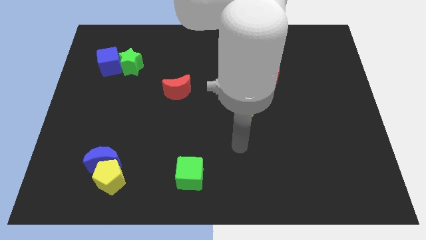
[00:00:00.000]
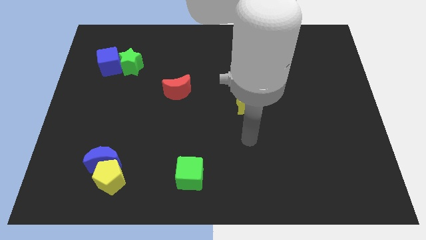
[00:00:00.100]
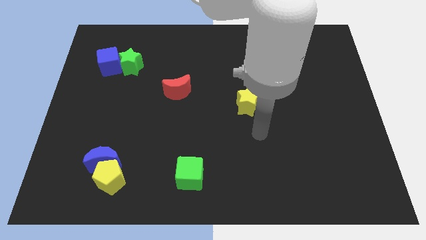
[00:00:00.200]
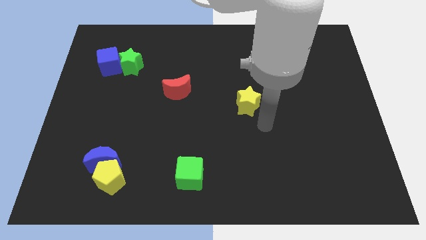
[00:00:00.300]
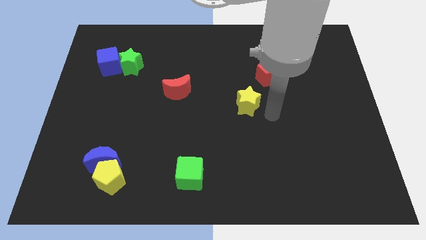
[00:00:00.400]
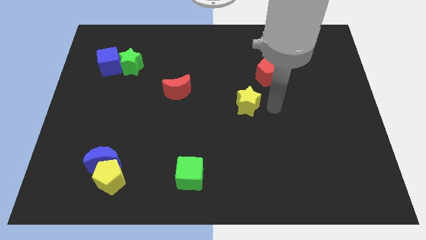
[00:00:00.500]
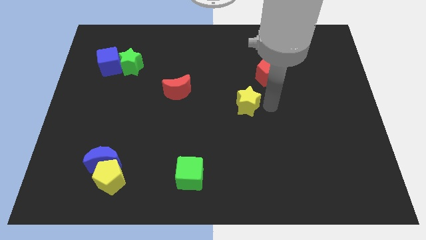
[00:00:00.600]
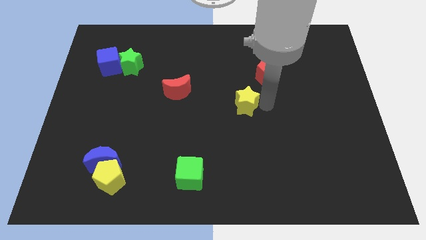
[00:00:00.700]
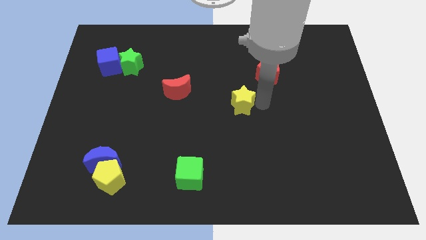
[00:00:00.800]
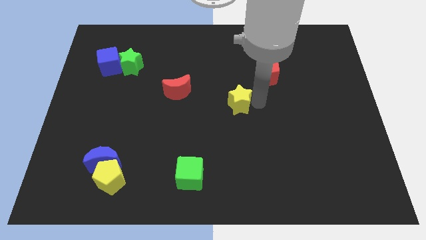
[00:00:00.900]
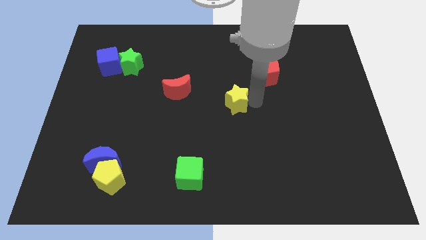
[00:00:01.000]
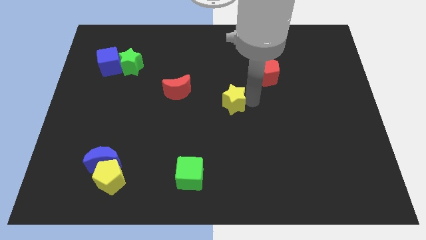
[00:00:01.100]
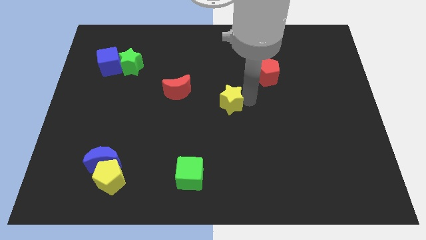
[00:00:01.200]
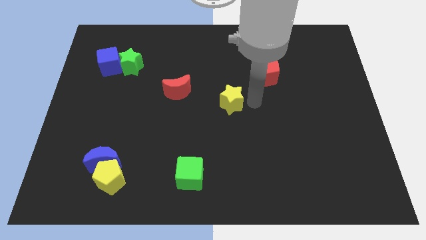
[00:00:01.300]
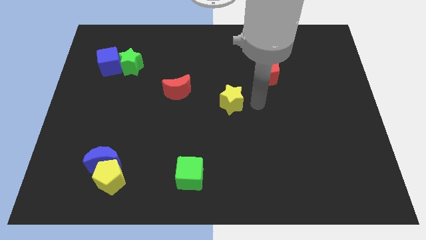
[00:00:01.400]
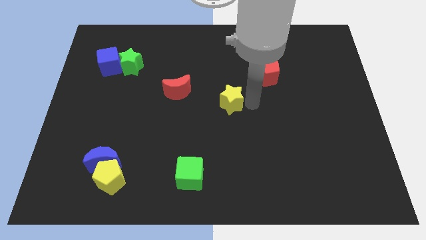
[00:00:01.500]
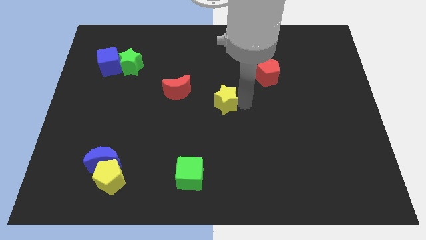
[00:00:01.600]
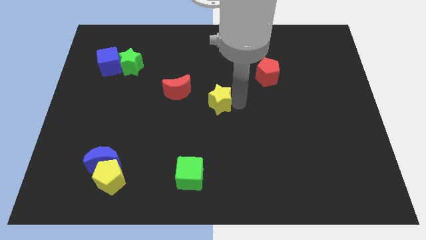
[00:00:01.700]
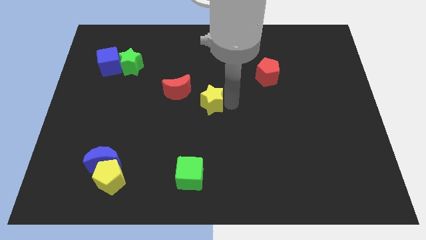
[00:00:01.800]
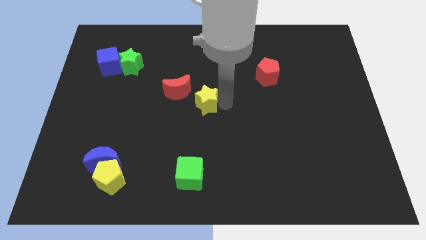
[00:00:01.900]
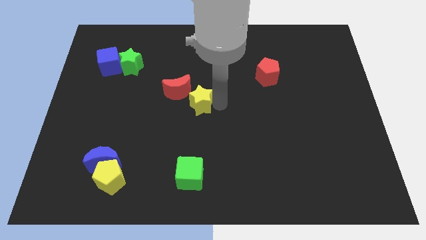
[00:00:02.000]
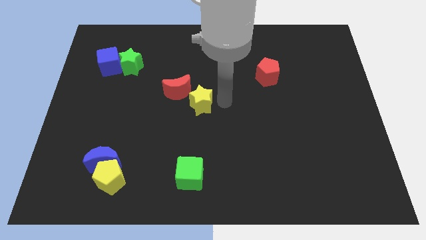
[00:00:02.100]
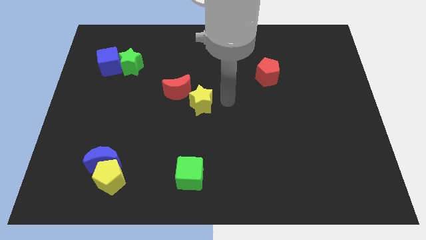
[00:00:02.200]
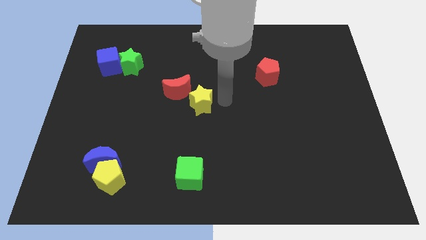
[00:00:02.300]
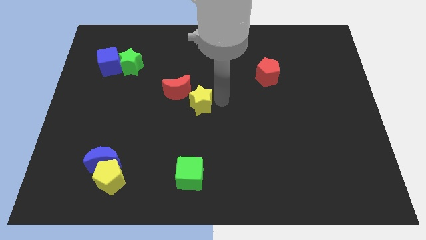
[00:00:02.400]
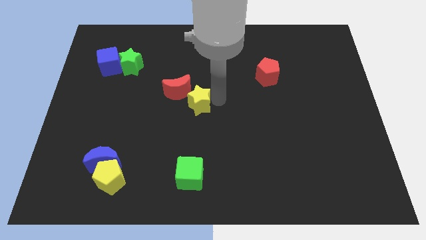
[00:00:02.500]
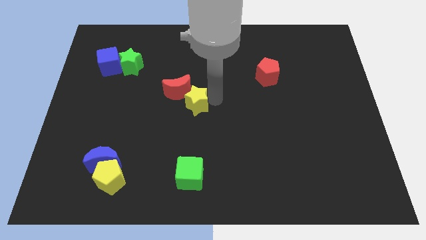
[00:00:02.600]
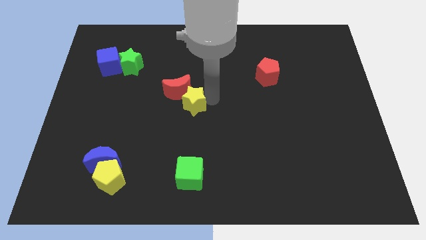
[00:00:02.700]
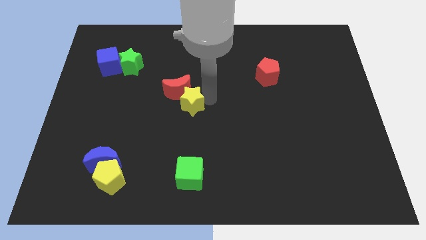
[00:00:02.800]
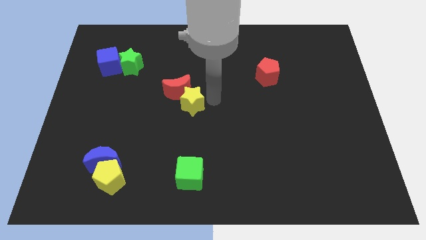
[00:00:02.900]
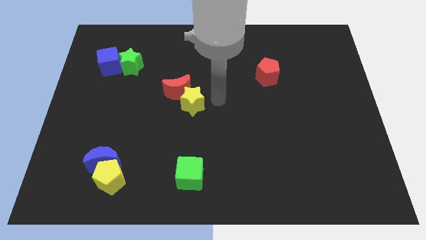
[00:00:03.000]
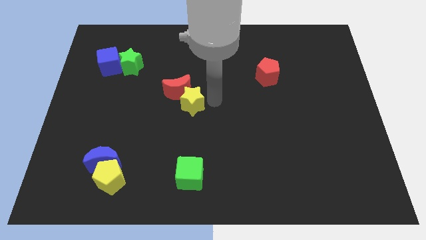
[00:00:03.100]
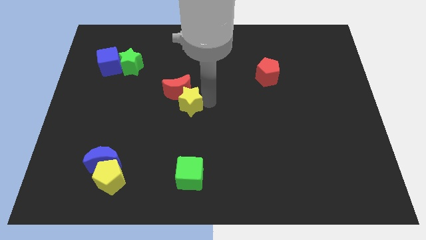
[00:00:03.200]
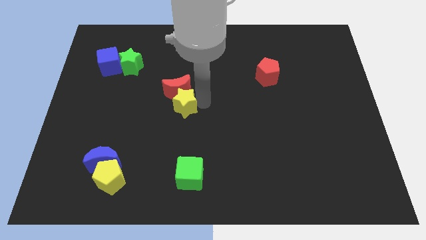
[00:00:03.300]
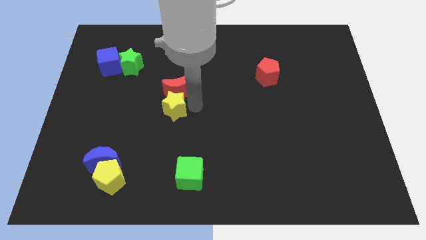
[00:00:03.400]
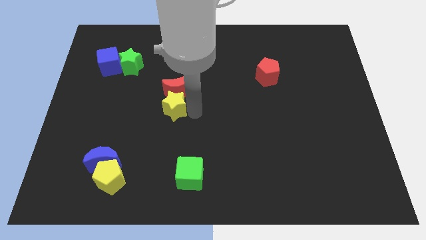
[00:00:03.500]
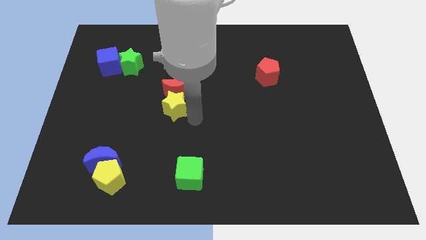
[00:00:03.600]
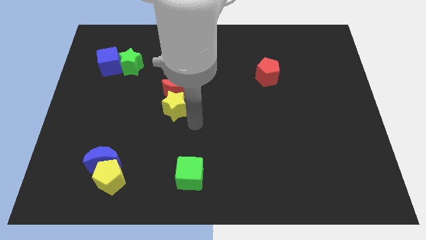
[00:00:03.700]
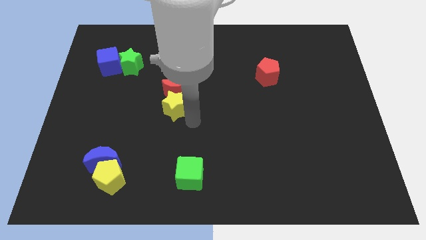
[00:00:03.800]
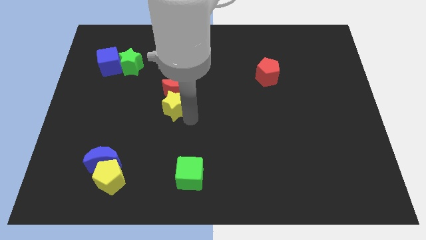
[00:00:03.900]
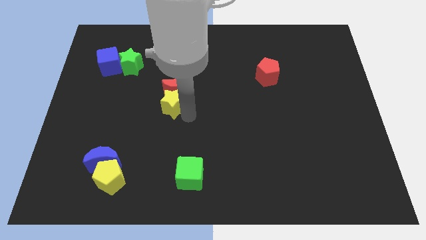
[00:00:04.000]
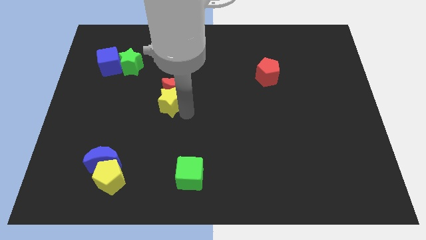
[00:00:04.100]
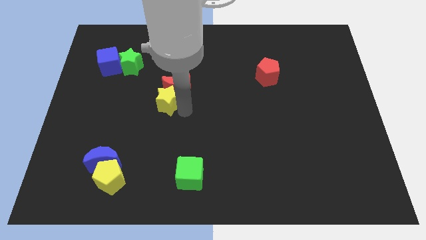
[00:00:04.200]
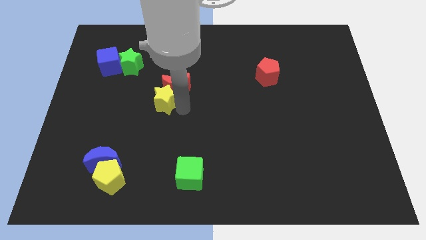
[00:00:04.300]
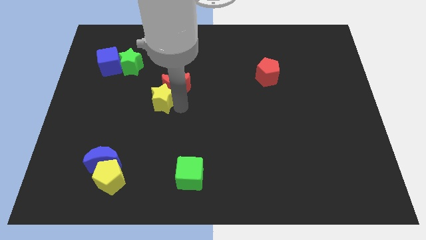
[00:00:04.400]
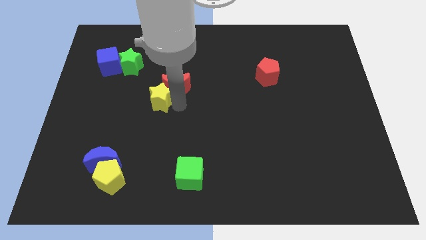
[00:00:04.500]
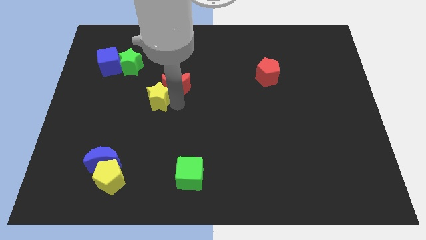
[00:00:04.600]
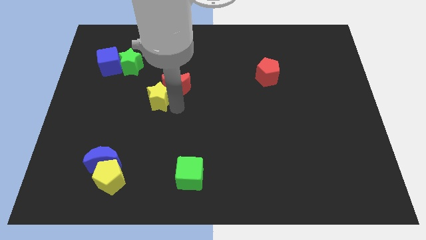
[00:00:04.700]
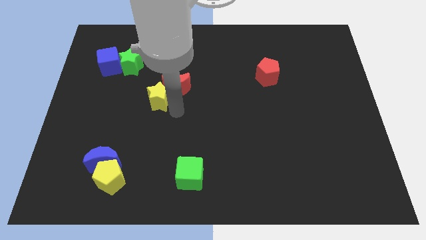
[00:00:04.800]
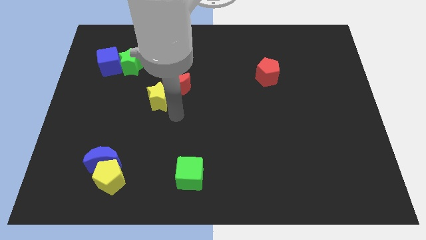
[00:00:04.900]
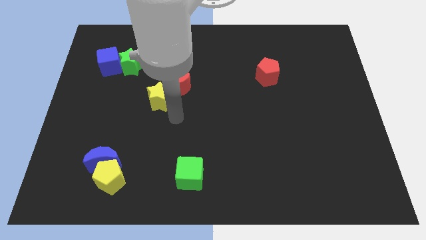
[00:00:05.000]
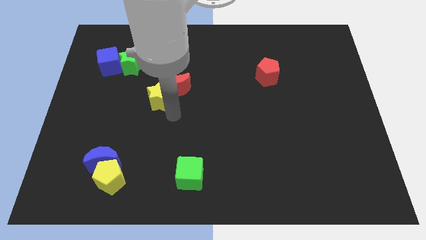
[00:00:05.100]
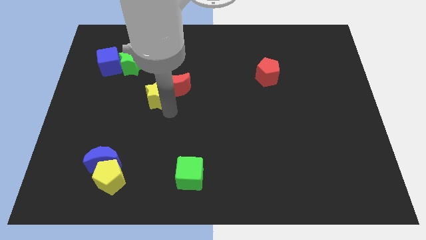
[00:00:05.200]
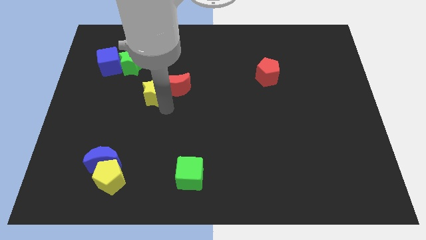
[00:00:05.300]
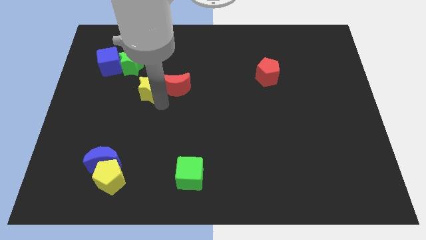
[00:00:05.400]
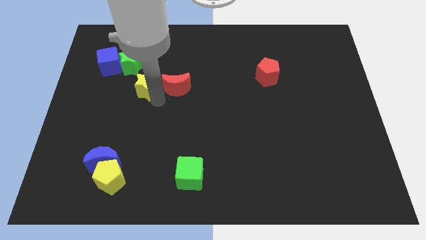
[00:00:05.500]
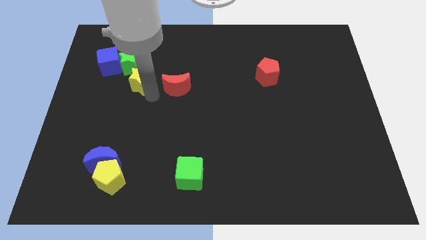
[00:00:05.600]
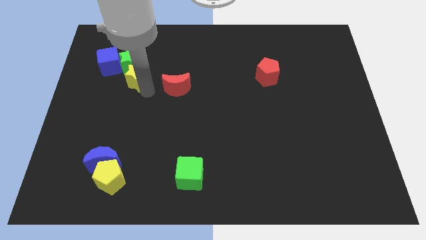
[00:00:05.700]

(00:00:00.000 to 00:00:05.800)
push the yellow star to the green star

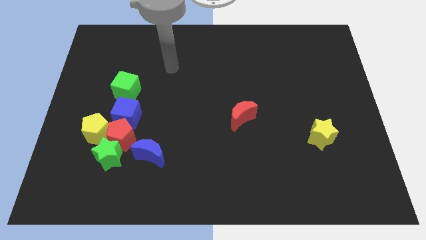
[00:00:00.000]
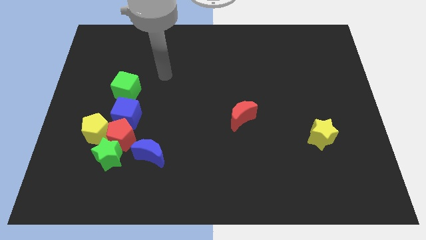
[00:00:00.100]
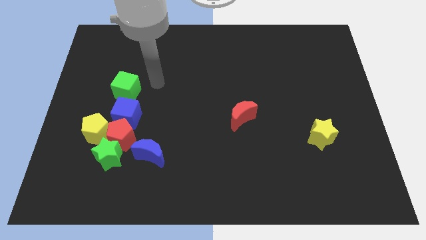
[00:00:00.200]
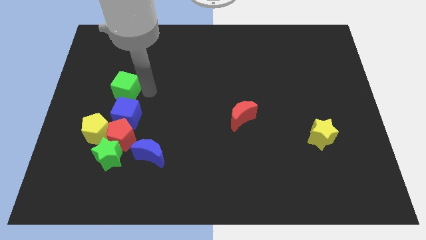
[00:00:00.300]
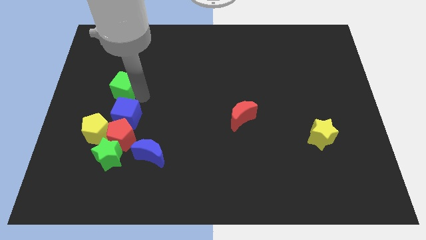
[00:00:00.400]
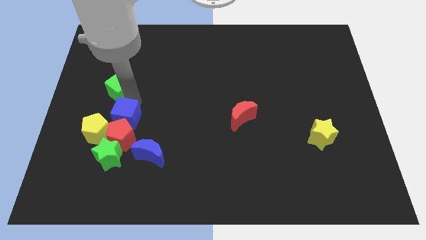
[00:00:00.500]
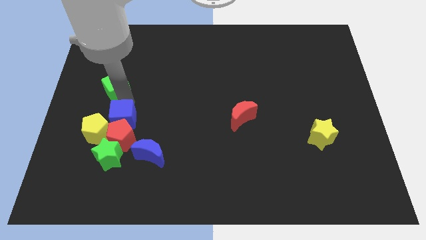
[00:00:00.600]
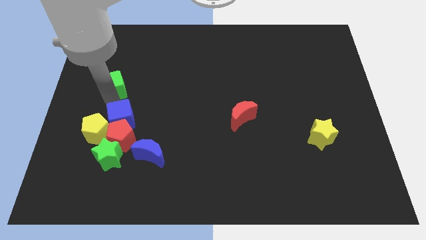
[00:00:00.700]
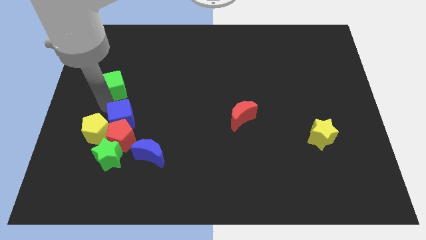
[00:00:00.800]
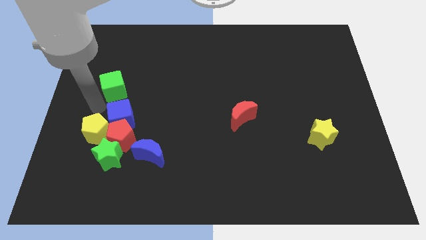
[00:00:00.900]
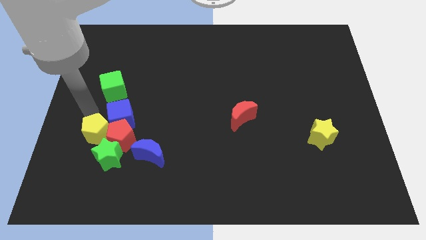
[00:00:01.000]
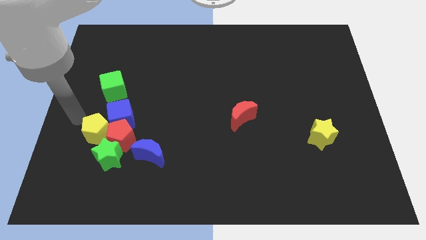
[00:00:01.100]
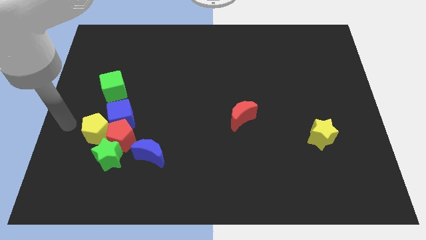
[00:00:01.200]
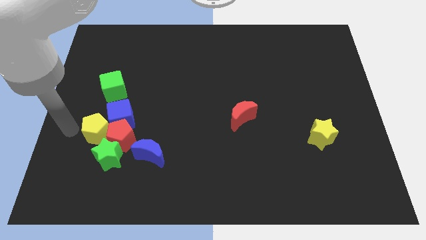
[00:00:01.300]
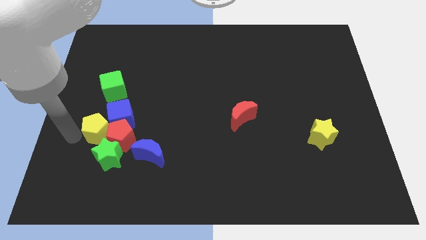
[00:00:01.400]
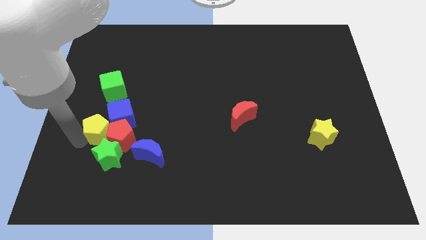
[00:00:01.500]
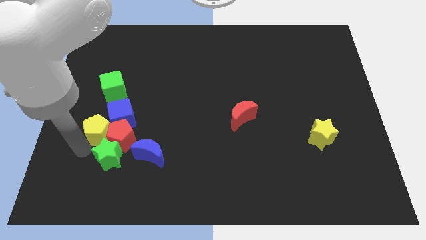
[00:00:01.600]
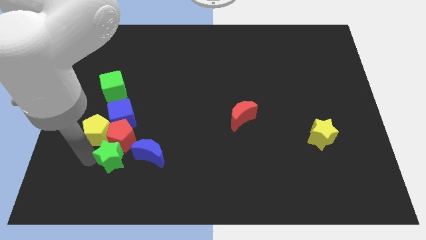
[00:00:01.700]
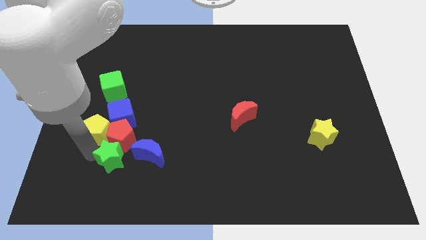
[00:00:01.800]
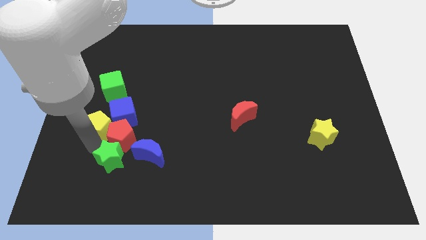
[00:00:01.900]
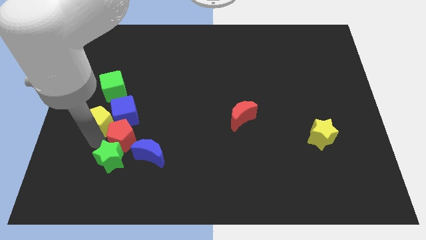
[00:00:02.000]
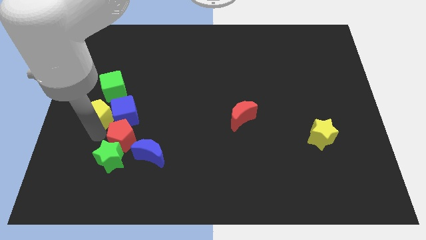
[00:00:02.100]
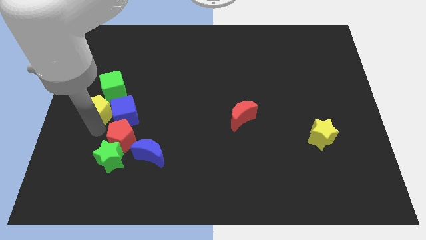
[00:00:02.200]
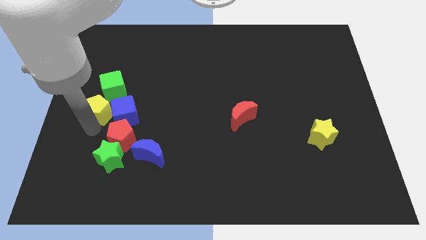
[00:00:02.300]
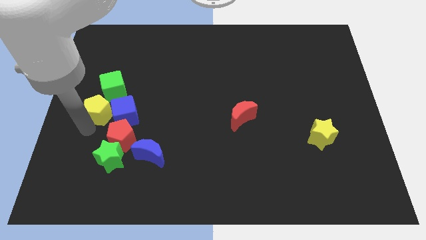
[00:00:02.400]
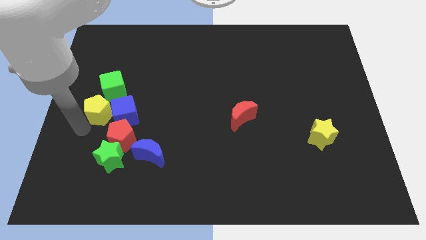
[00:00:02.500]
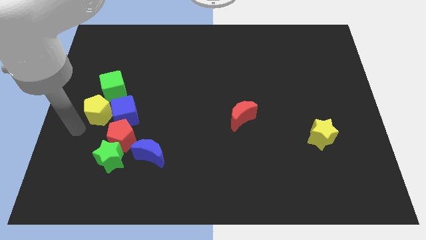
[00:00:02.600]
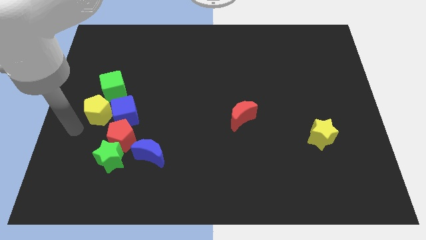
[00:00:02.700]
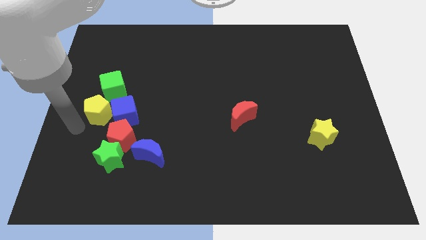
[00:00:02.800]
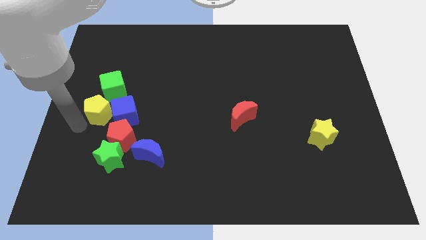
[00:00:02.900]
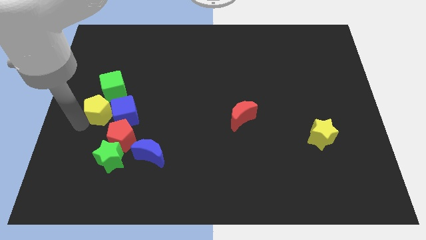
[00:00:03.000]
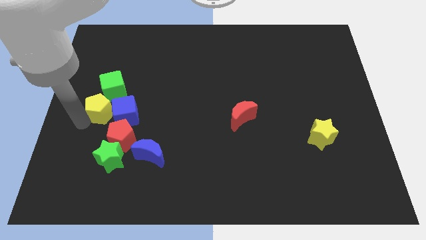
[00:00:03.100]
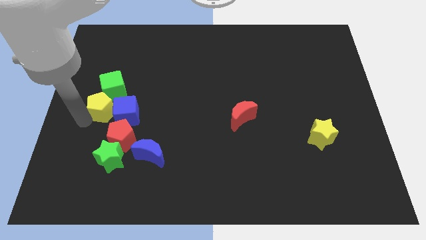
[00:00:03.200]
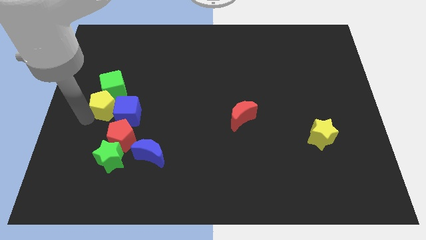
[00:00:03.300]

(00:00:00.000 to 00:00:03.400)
push the yellow pentagon to the green cube
